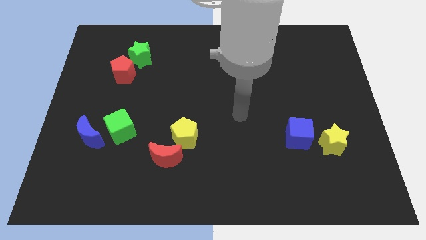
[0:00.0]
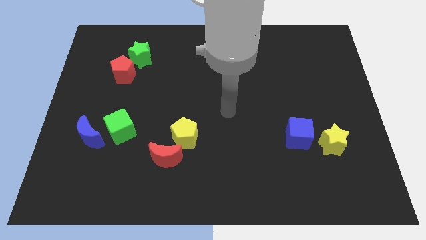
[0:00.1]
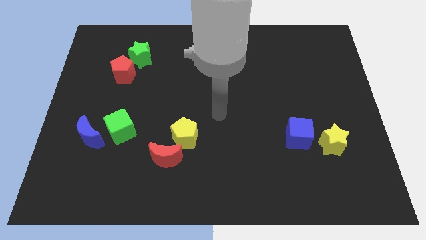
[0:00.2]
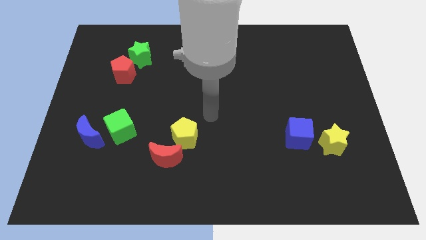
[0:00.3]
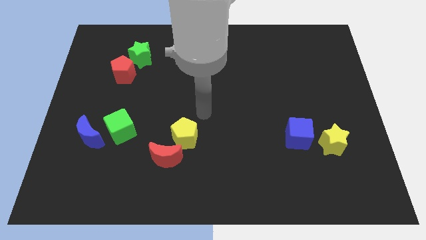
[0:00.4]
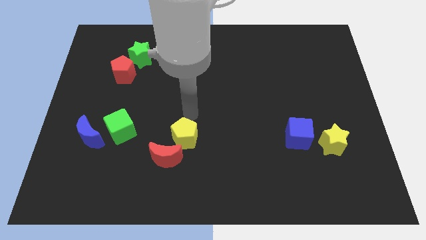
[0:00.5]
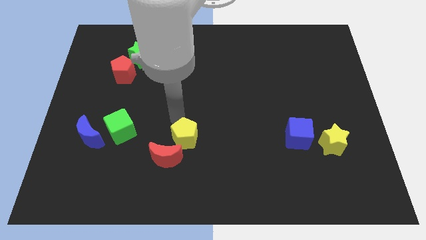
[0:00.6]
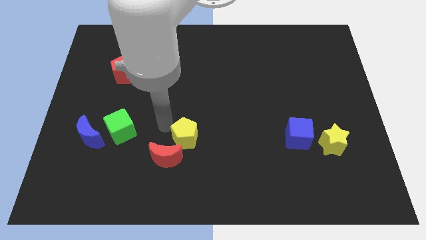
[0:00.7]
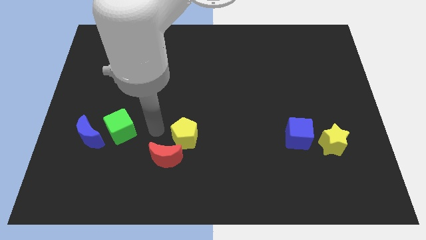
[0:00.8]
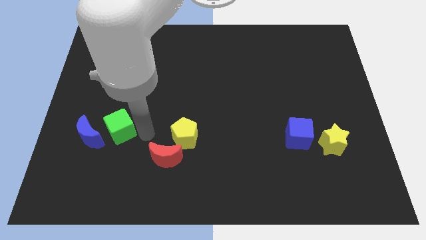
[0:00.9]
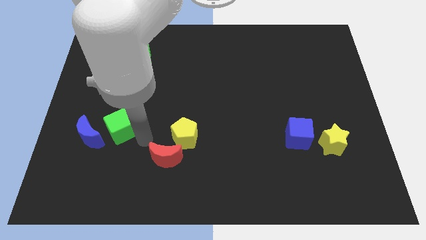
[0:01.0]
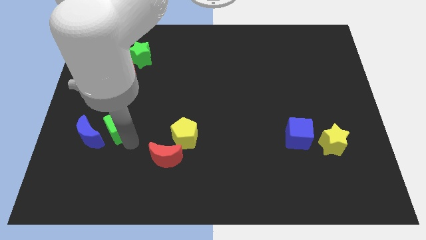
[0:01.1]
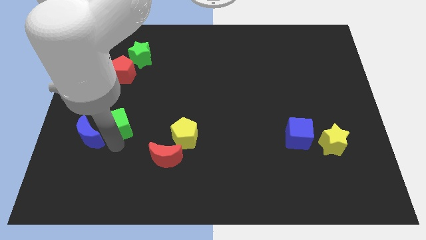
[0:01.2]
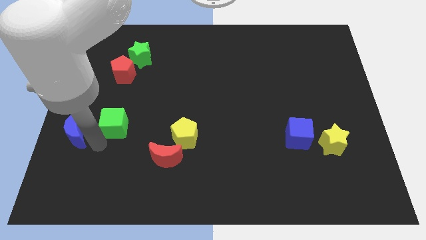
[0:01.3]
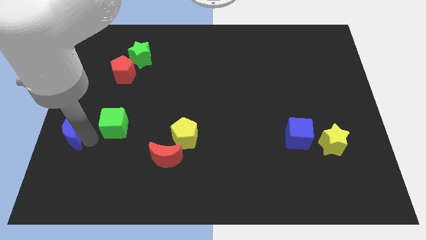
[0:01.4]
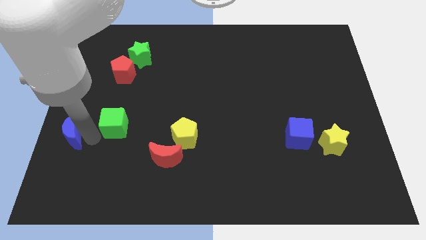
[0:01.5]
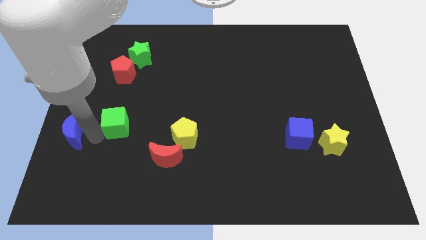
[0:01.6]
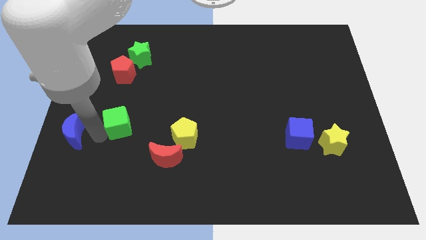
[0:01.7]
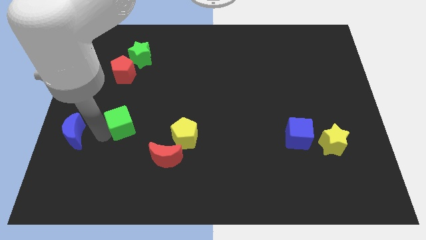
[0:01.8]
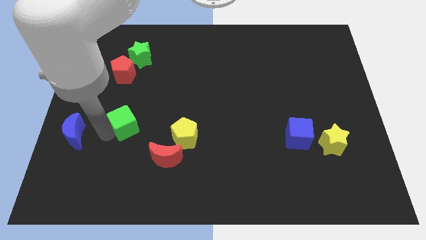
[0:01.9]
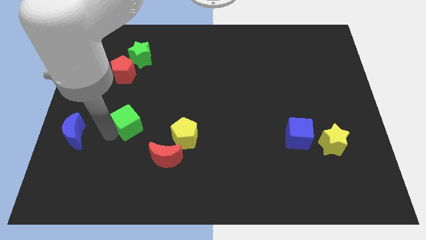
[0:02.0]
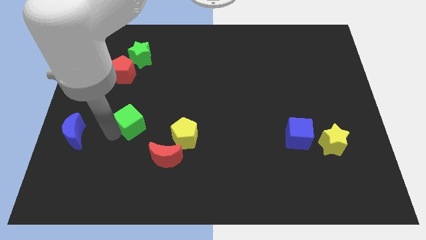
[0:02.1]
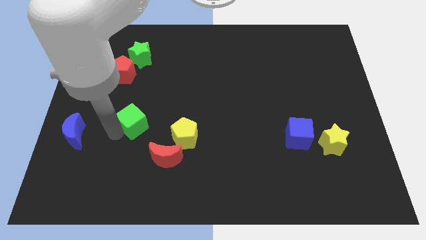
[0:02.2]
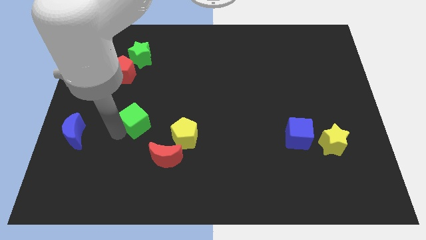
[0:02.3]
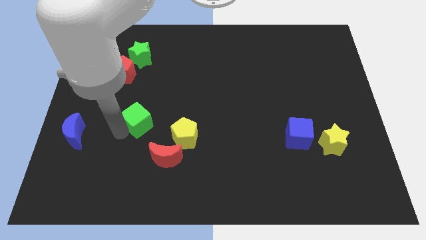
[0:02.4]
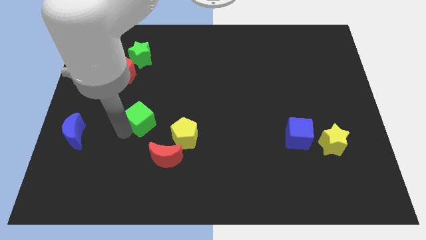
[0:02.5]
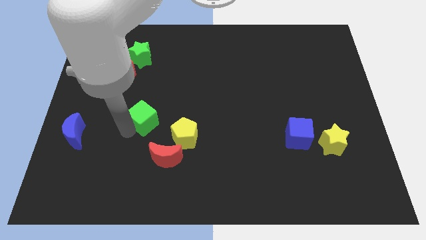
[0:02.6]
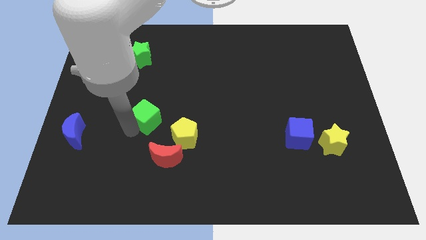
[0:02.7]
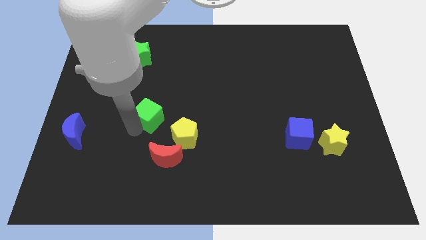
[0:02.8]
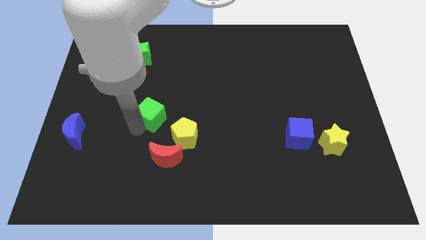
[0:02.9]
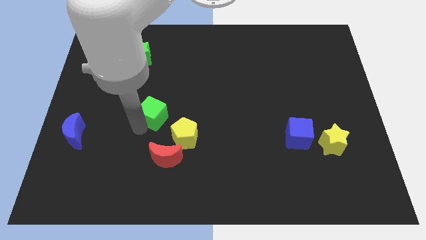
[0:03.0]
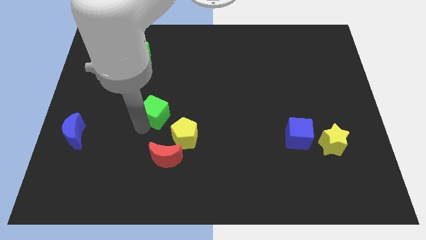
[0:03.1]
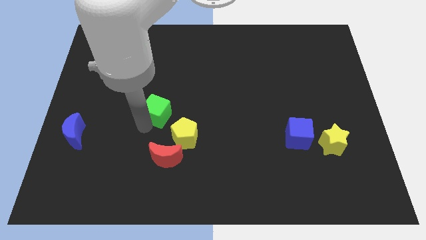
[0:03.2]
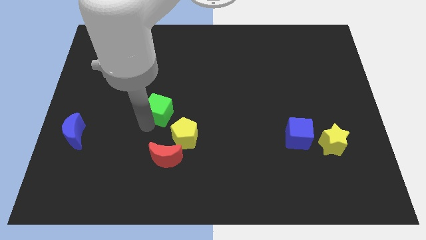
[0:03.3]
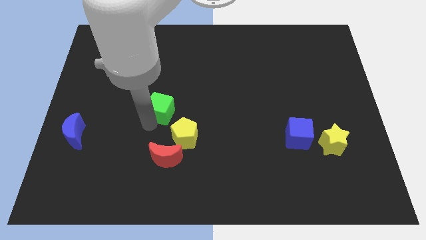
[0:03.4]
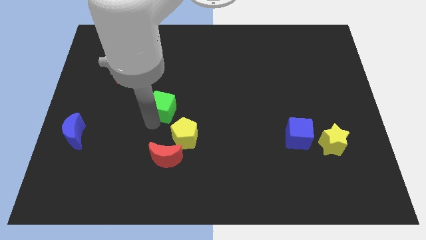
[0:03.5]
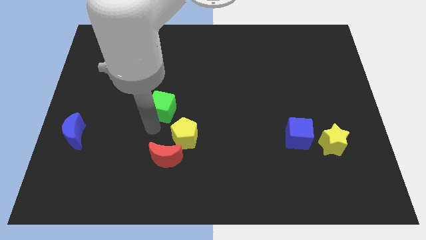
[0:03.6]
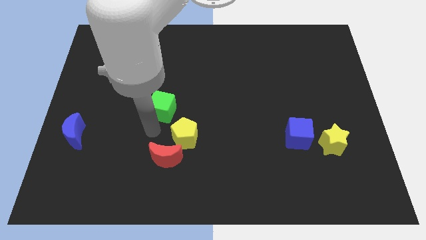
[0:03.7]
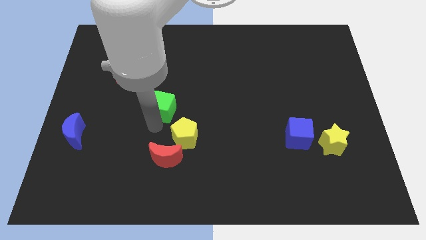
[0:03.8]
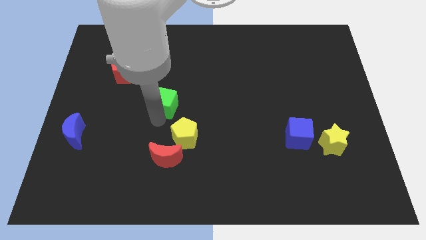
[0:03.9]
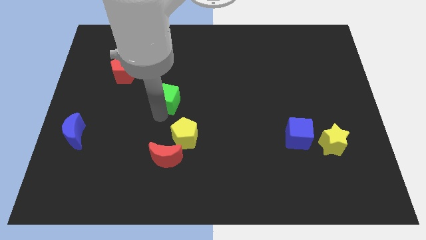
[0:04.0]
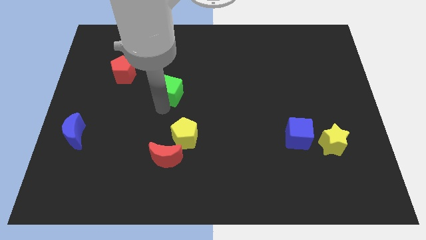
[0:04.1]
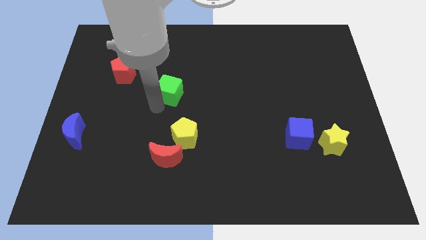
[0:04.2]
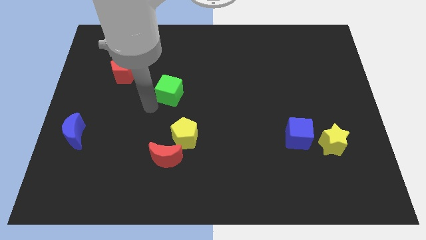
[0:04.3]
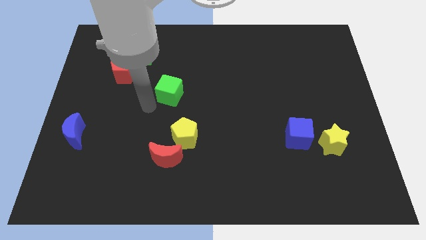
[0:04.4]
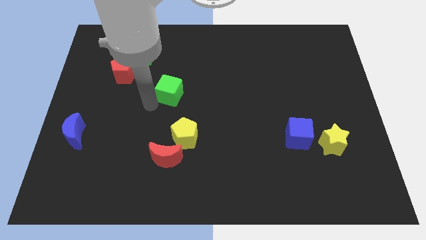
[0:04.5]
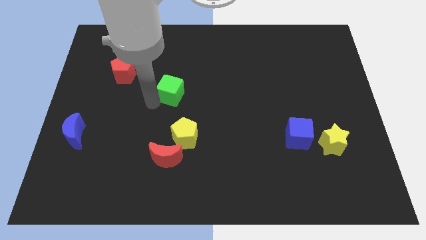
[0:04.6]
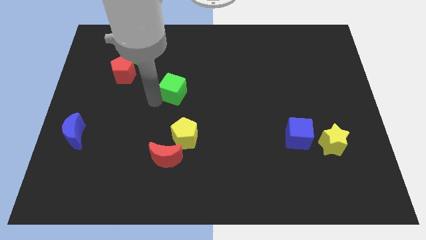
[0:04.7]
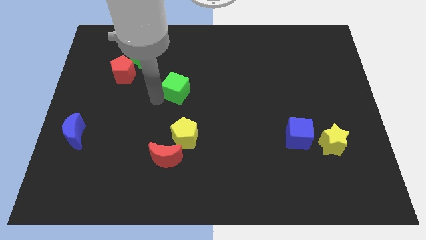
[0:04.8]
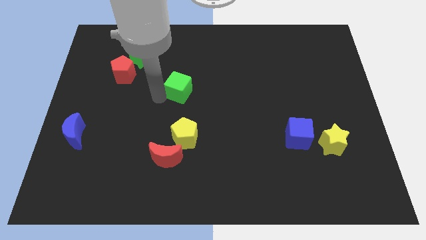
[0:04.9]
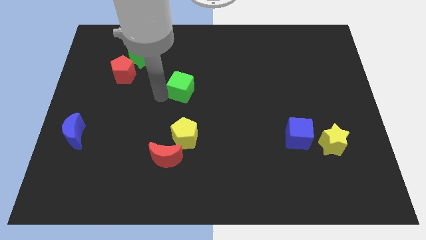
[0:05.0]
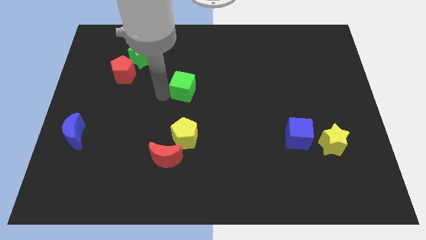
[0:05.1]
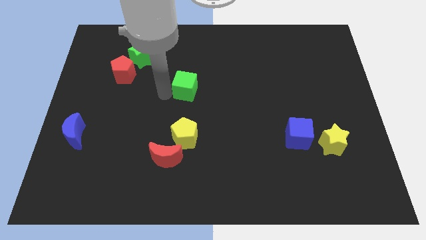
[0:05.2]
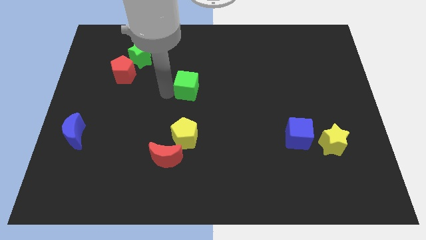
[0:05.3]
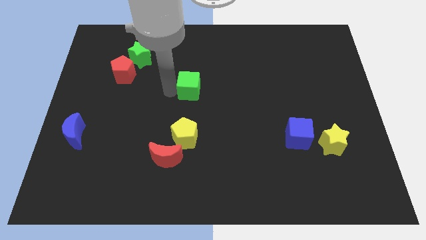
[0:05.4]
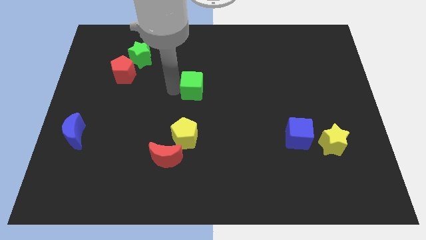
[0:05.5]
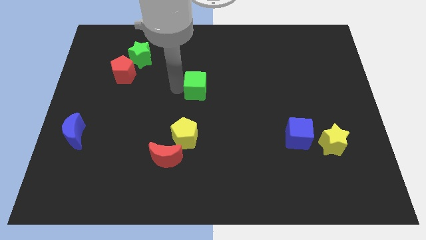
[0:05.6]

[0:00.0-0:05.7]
slide the green cube up and to the right diagonally

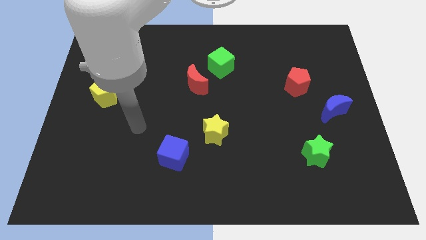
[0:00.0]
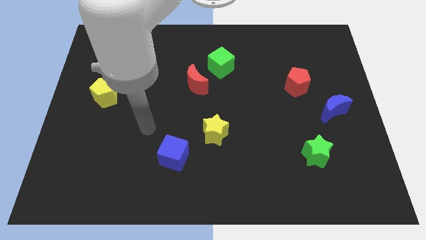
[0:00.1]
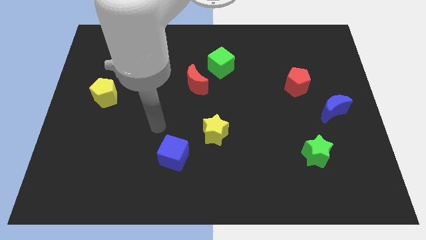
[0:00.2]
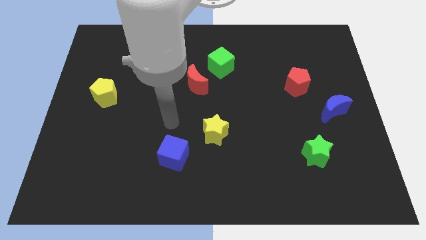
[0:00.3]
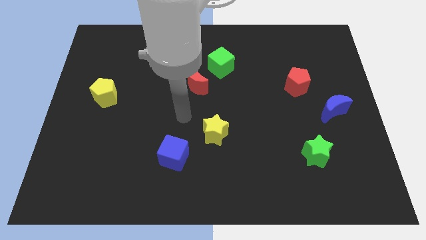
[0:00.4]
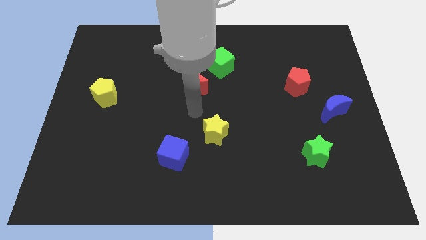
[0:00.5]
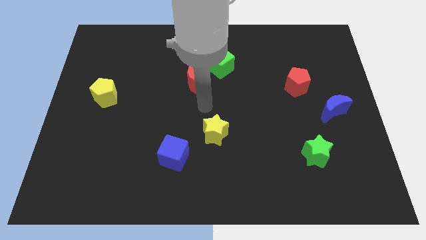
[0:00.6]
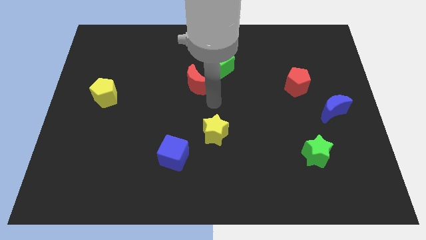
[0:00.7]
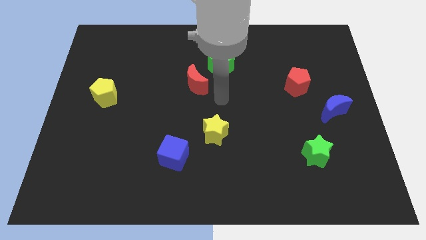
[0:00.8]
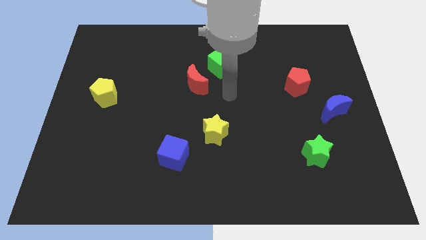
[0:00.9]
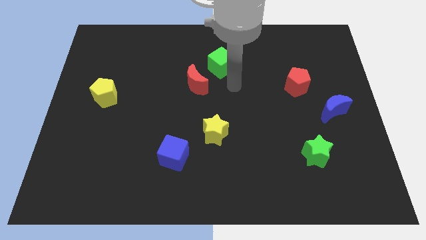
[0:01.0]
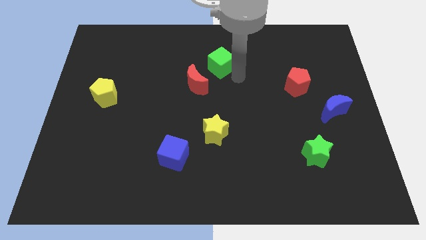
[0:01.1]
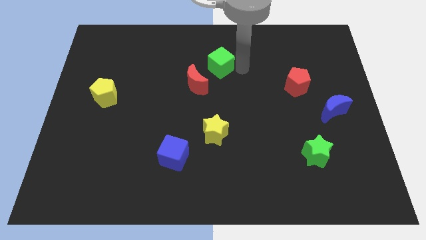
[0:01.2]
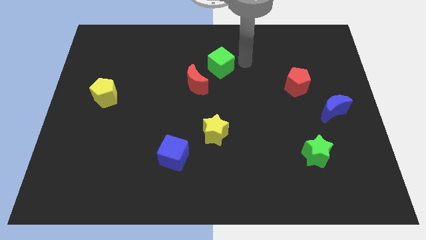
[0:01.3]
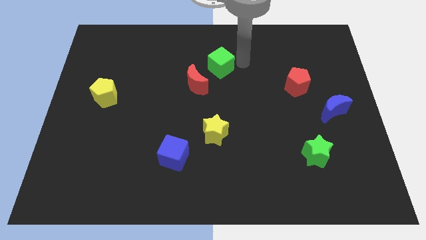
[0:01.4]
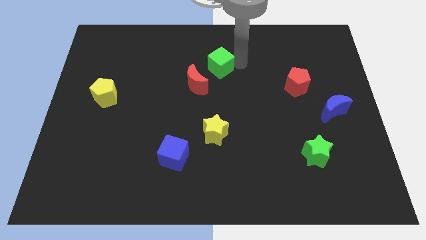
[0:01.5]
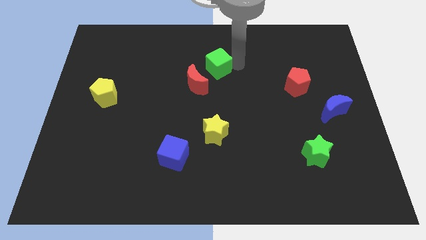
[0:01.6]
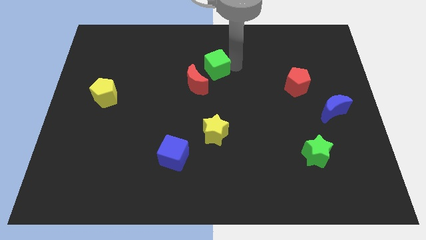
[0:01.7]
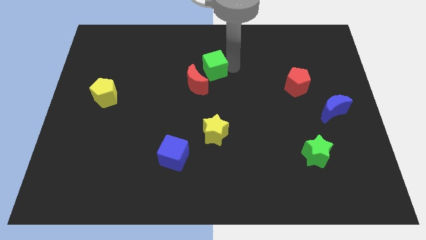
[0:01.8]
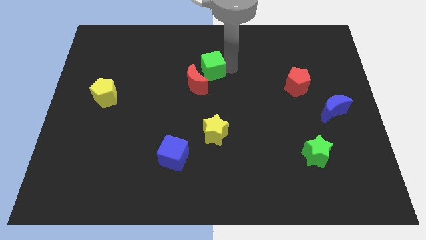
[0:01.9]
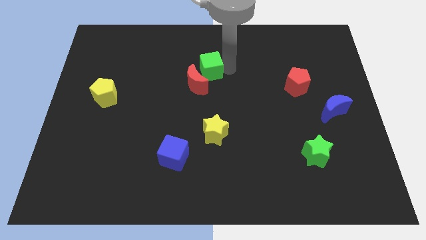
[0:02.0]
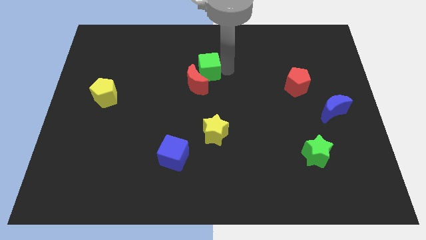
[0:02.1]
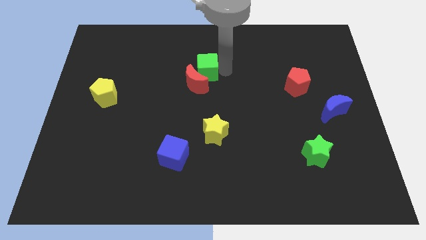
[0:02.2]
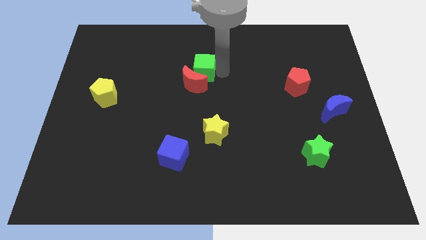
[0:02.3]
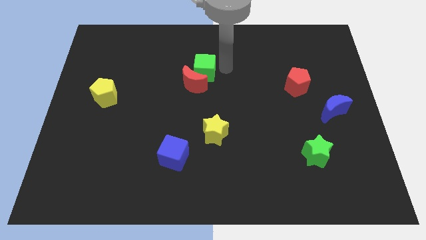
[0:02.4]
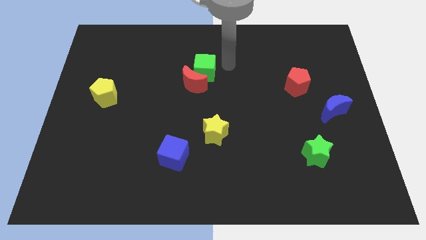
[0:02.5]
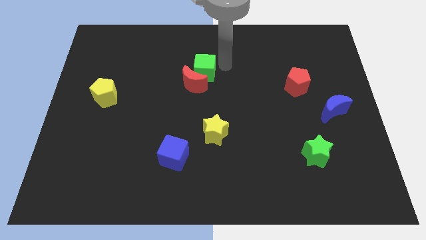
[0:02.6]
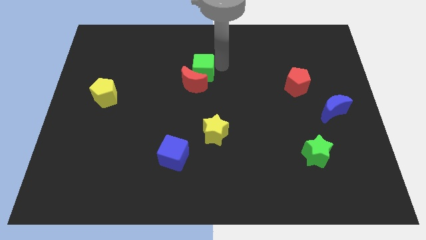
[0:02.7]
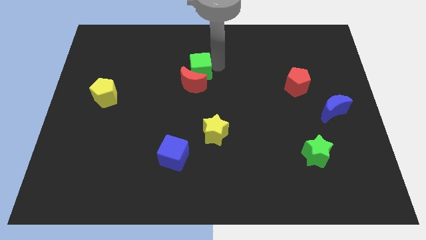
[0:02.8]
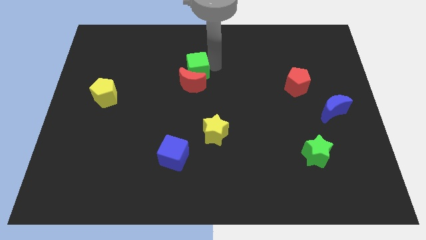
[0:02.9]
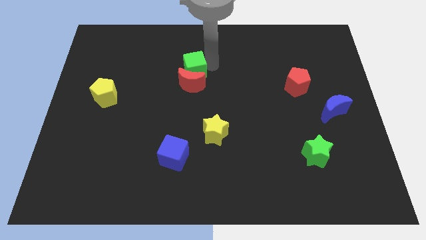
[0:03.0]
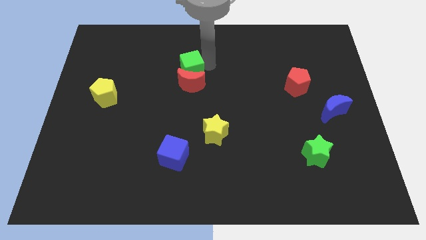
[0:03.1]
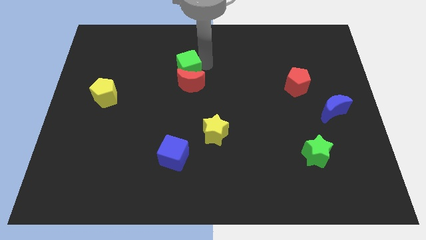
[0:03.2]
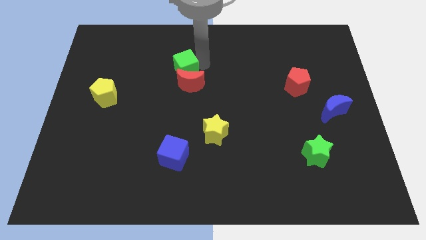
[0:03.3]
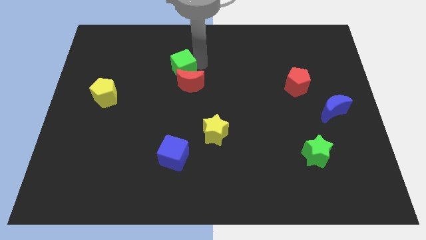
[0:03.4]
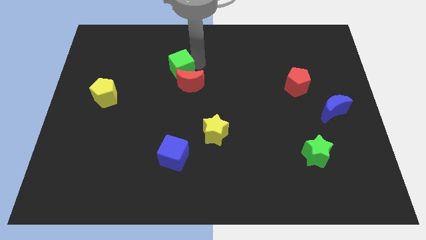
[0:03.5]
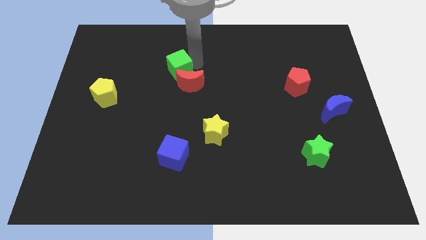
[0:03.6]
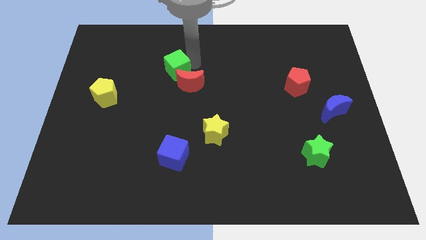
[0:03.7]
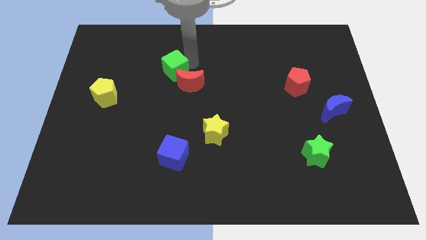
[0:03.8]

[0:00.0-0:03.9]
slide the green cube slightly down and then left
